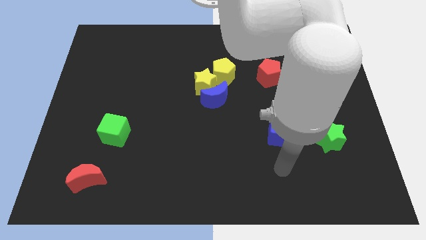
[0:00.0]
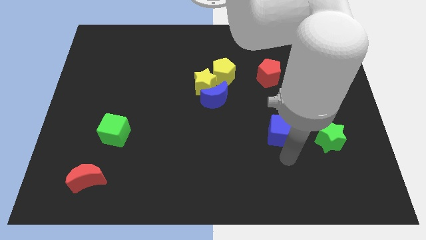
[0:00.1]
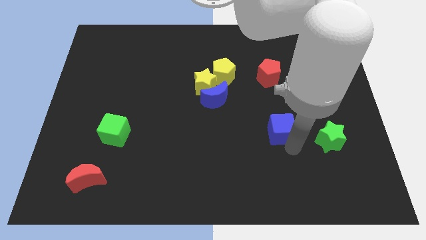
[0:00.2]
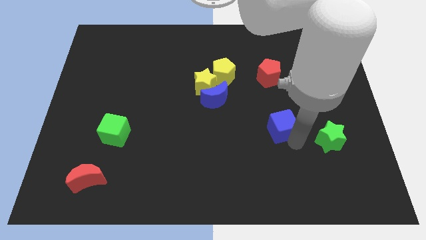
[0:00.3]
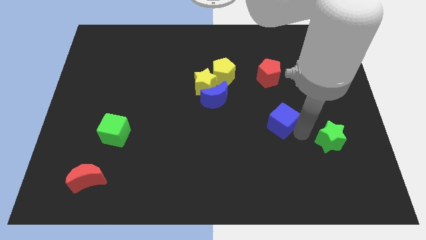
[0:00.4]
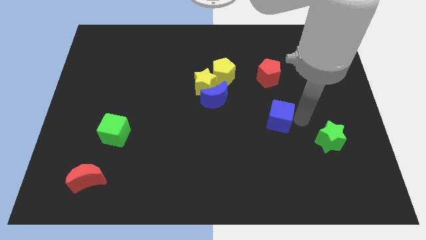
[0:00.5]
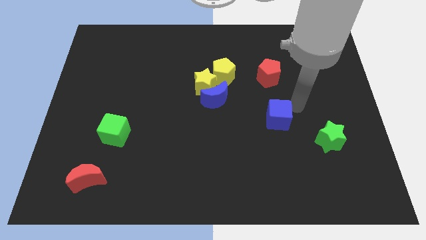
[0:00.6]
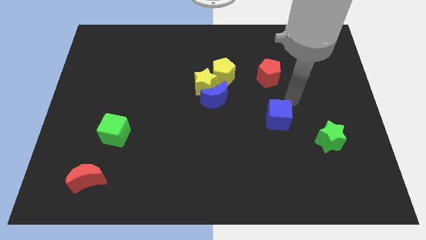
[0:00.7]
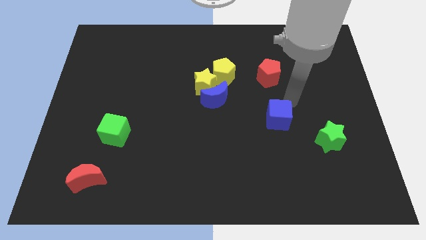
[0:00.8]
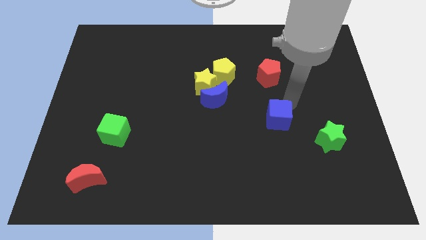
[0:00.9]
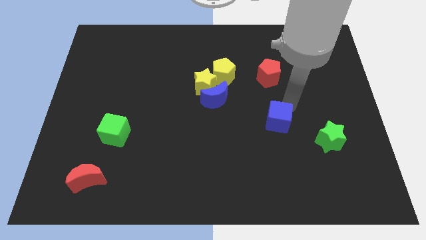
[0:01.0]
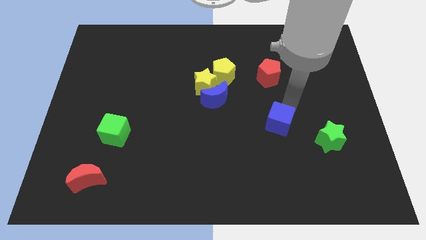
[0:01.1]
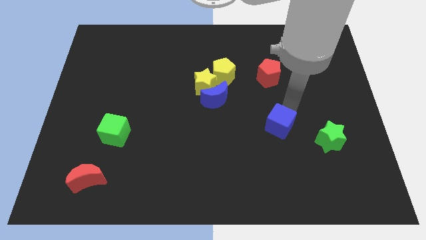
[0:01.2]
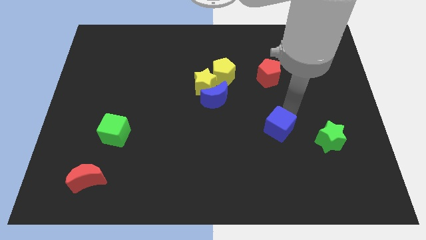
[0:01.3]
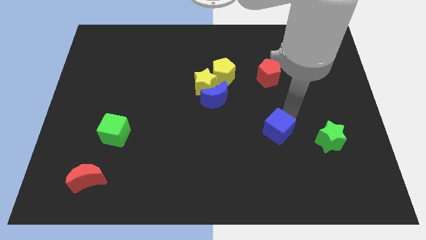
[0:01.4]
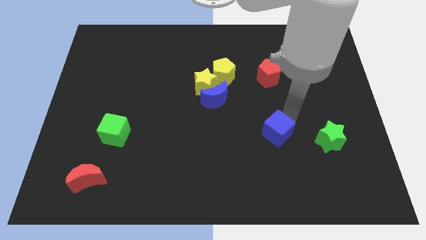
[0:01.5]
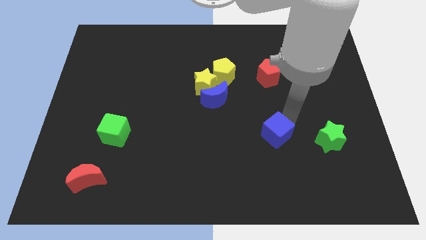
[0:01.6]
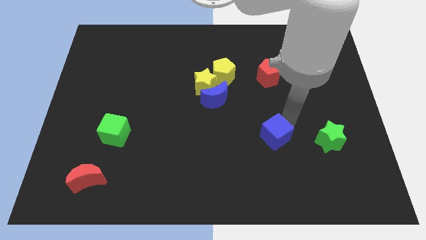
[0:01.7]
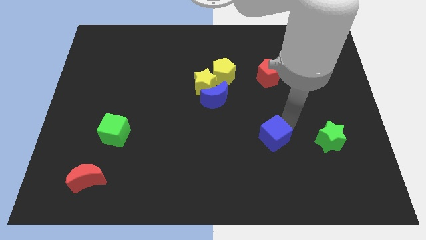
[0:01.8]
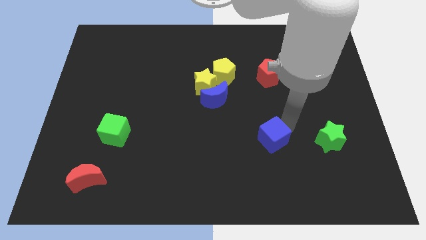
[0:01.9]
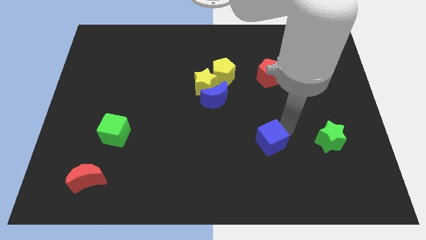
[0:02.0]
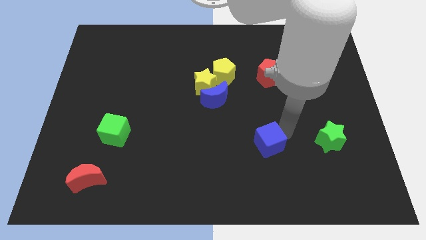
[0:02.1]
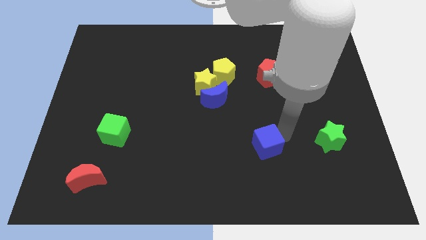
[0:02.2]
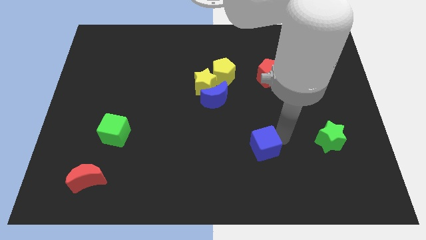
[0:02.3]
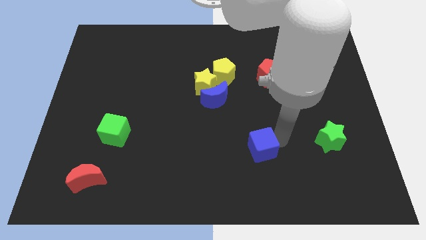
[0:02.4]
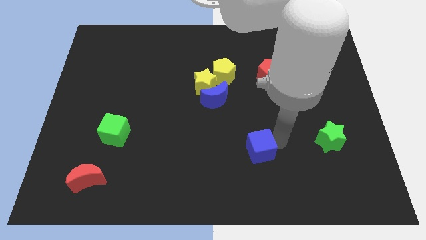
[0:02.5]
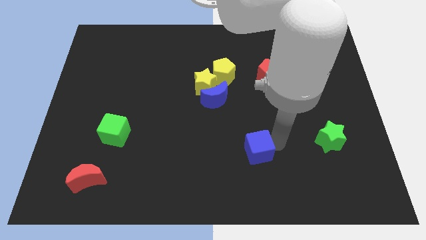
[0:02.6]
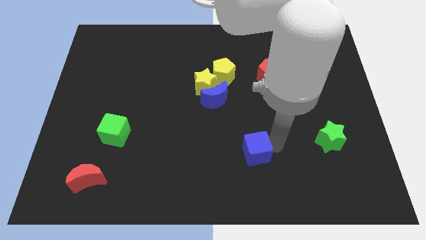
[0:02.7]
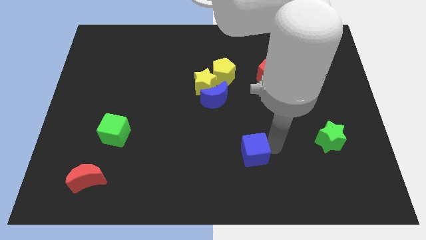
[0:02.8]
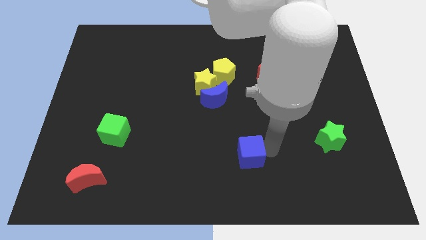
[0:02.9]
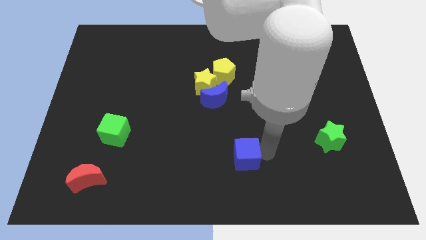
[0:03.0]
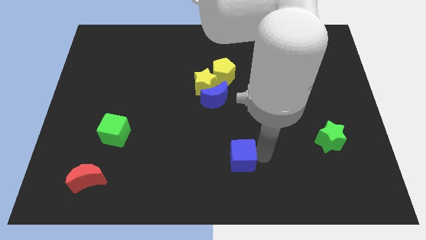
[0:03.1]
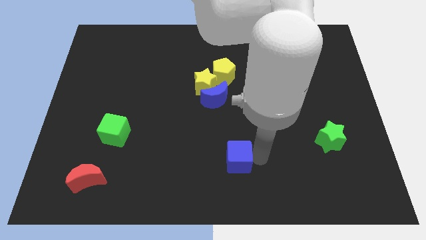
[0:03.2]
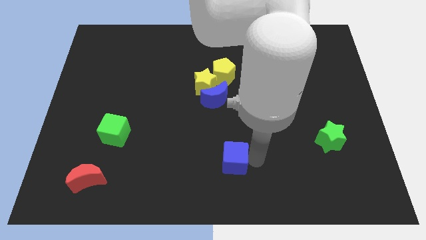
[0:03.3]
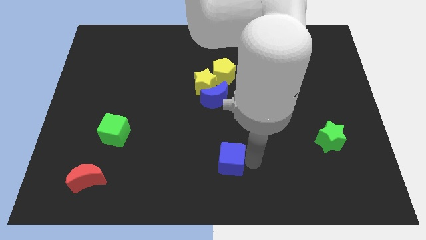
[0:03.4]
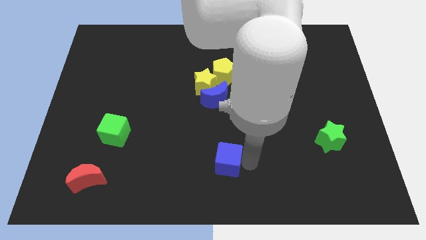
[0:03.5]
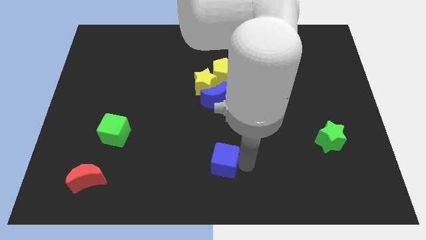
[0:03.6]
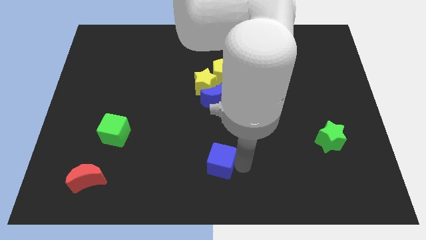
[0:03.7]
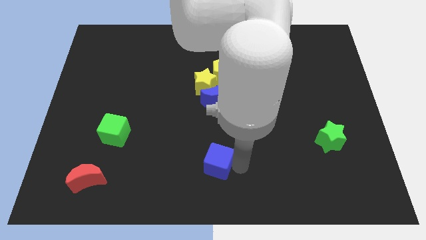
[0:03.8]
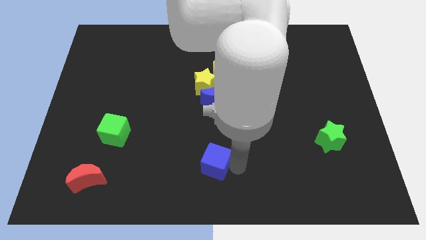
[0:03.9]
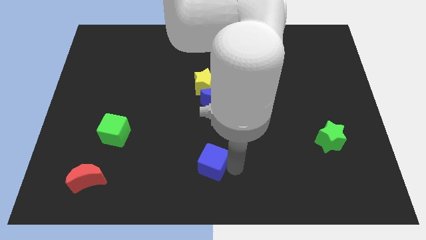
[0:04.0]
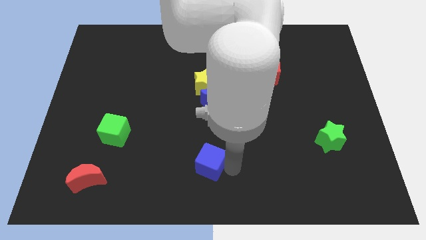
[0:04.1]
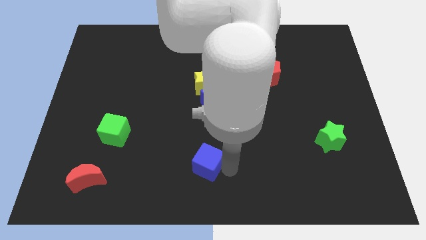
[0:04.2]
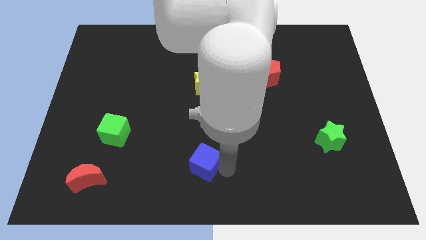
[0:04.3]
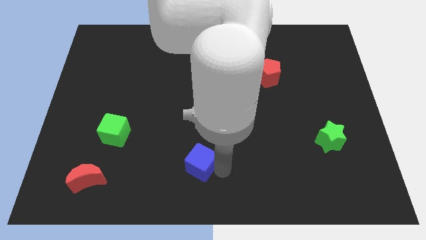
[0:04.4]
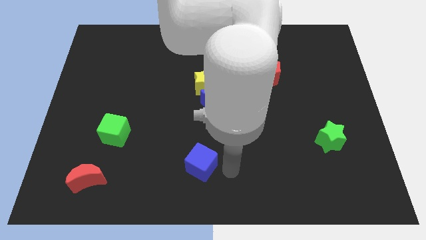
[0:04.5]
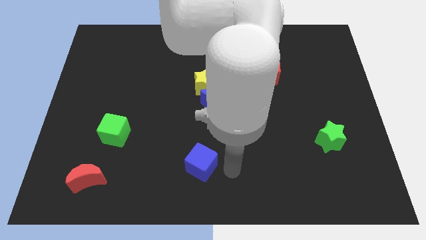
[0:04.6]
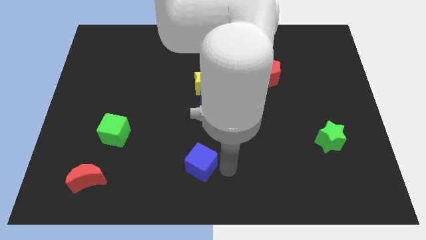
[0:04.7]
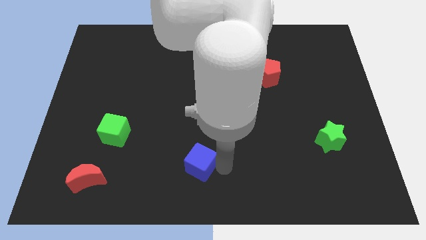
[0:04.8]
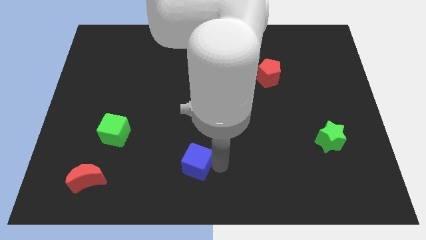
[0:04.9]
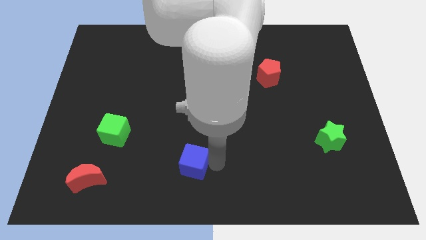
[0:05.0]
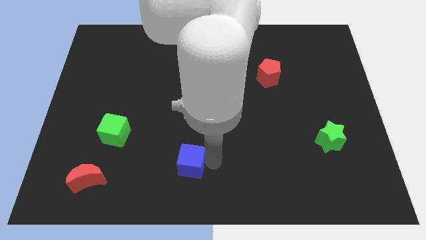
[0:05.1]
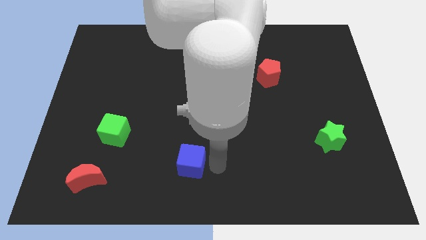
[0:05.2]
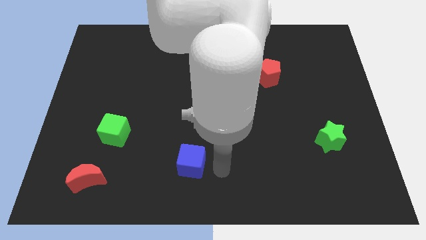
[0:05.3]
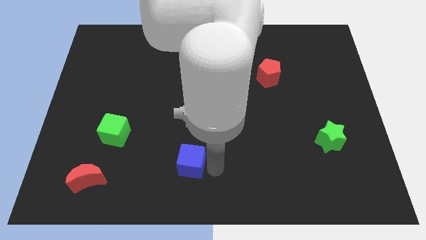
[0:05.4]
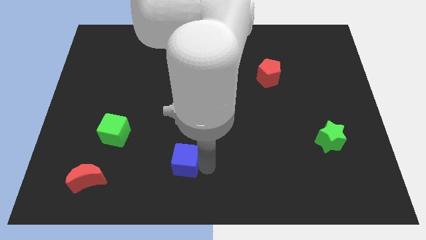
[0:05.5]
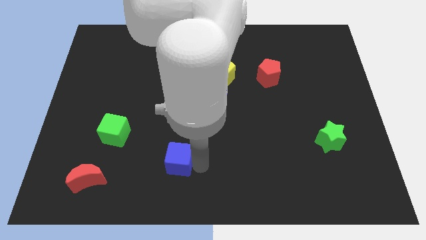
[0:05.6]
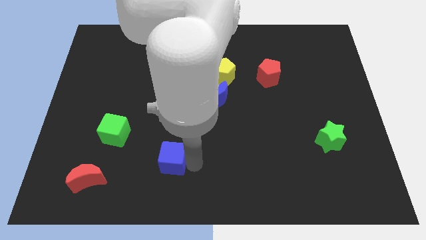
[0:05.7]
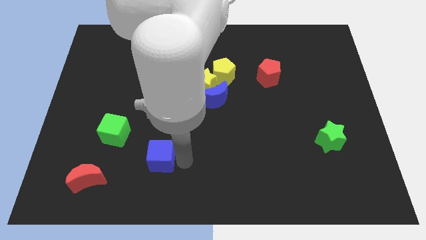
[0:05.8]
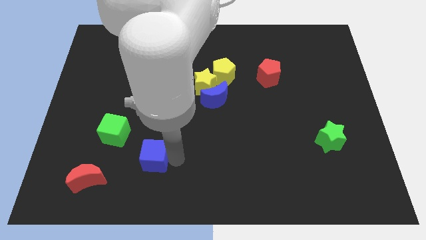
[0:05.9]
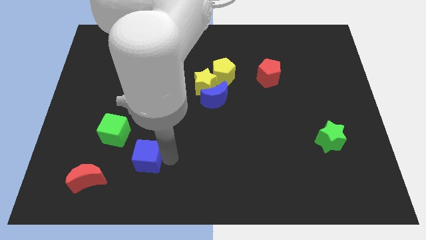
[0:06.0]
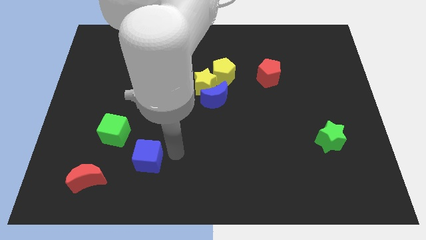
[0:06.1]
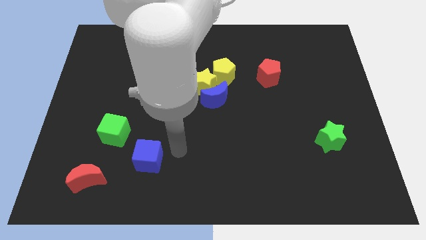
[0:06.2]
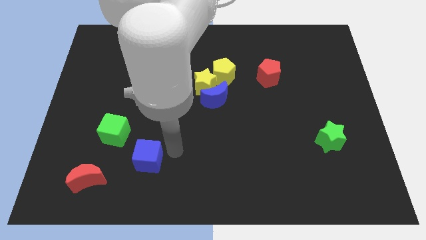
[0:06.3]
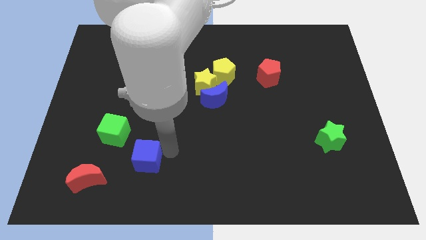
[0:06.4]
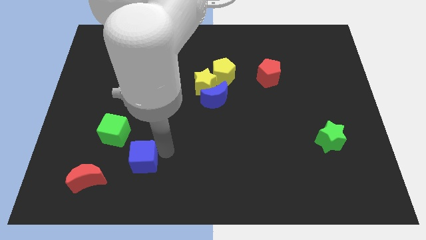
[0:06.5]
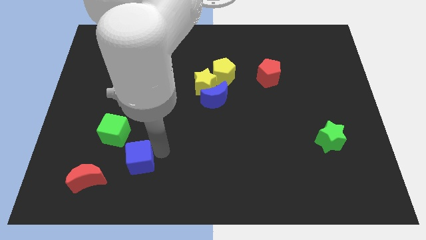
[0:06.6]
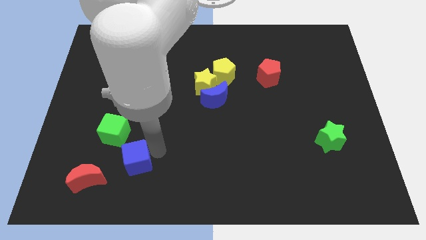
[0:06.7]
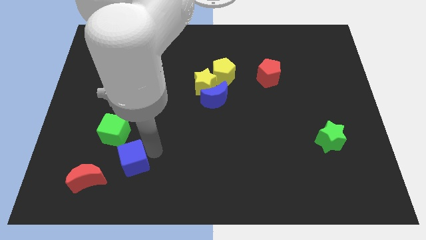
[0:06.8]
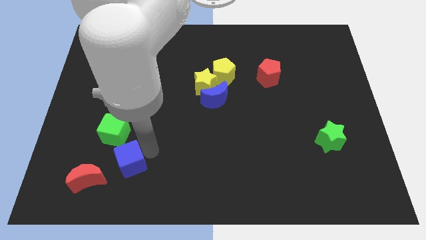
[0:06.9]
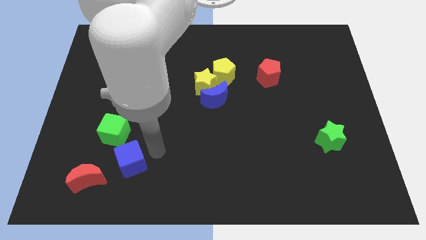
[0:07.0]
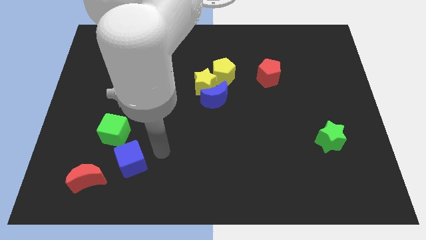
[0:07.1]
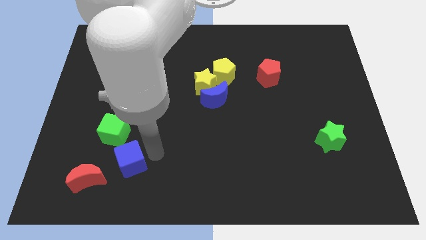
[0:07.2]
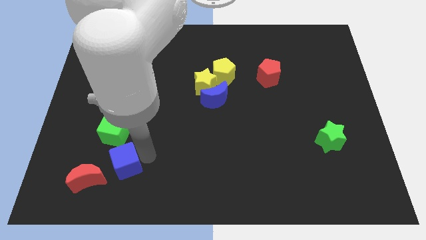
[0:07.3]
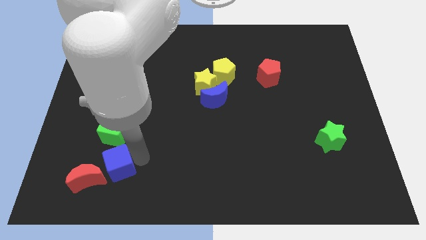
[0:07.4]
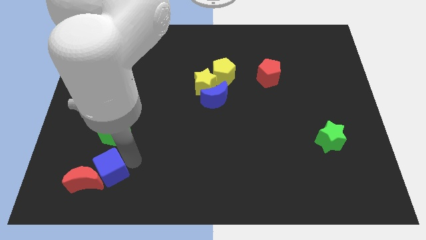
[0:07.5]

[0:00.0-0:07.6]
move the blue cube next to the red moon
